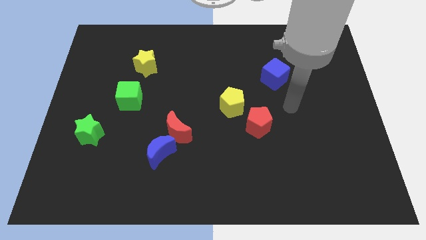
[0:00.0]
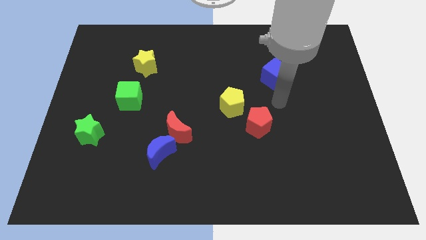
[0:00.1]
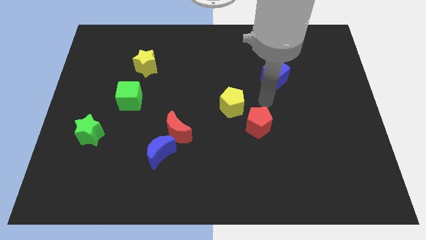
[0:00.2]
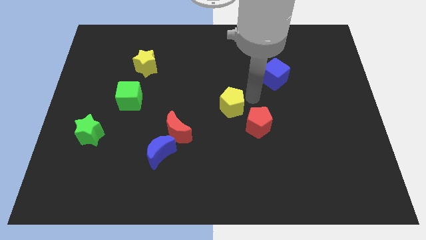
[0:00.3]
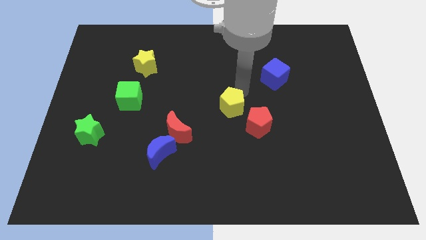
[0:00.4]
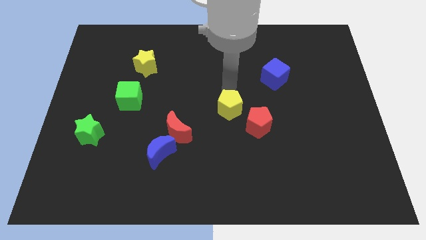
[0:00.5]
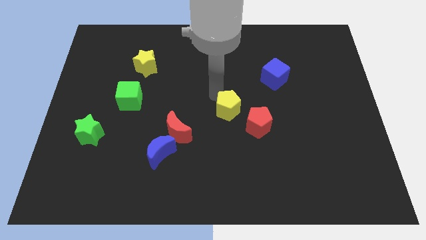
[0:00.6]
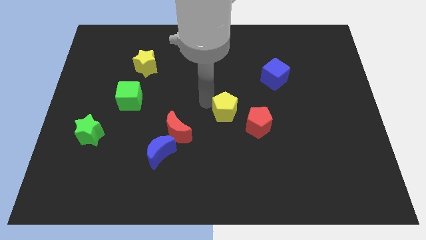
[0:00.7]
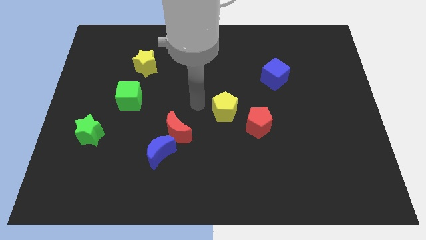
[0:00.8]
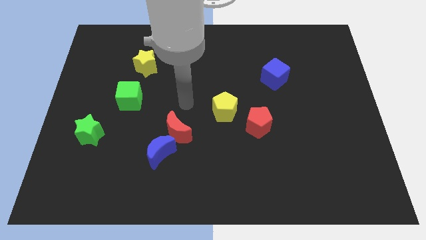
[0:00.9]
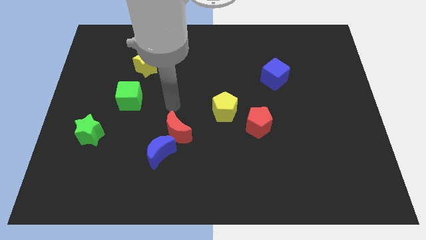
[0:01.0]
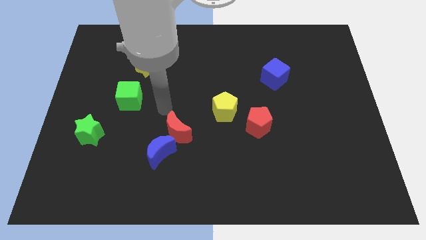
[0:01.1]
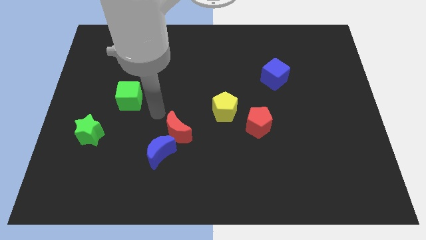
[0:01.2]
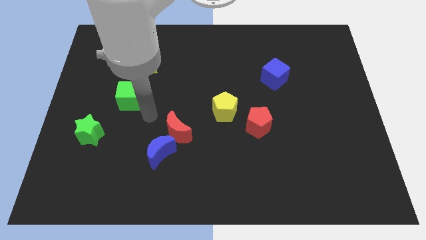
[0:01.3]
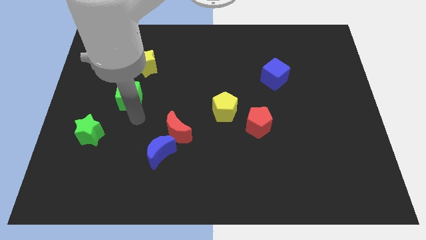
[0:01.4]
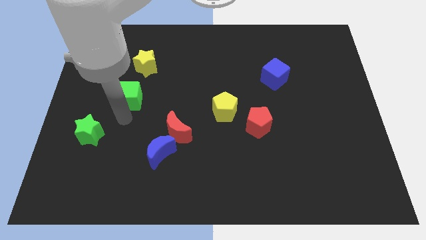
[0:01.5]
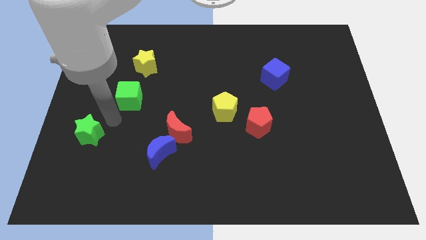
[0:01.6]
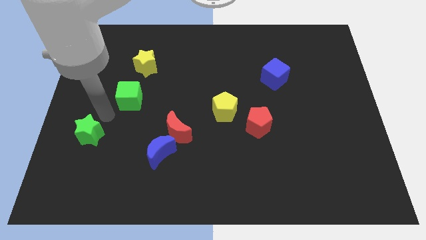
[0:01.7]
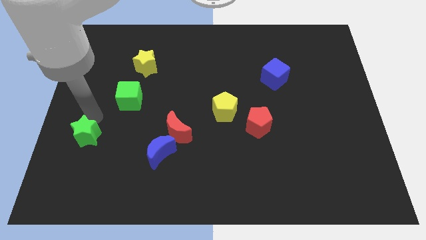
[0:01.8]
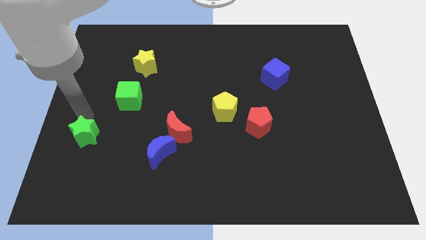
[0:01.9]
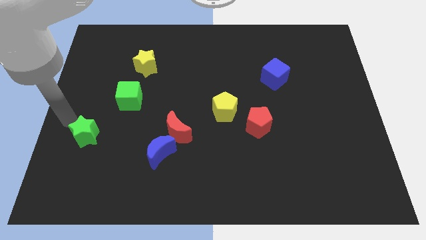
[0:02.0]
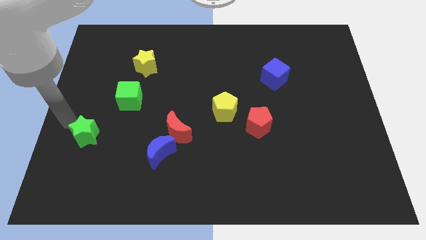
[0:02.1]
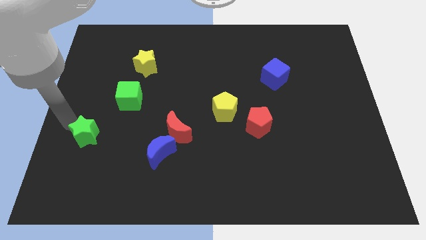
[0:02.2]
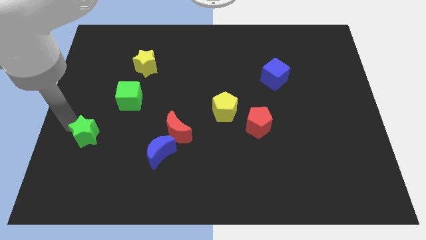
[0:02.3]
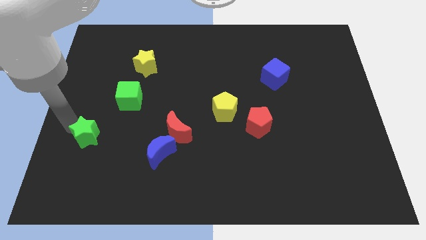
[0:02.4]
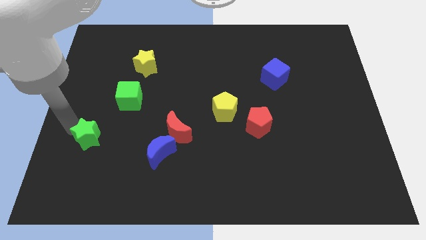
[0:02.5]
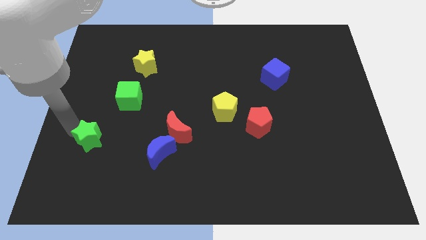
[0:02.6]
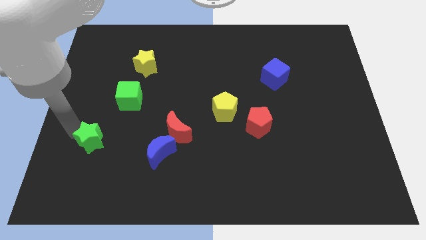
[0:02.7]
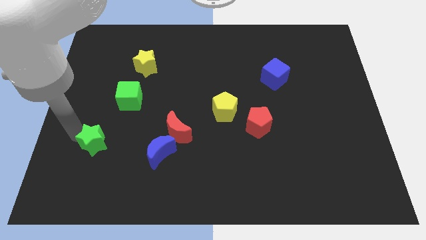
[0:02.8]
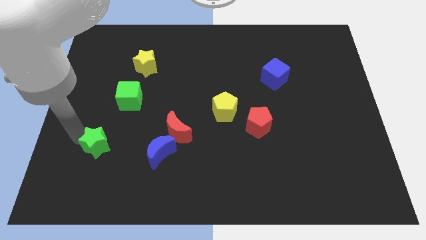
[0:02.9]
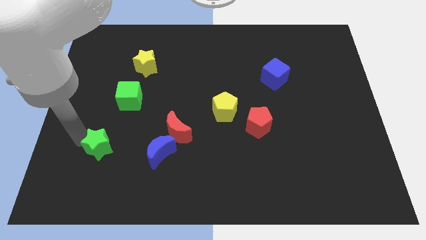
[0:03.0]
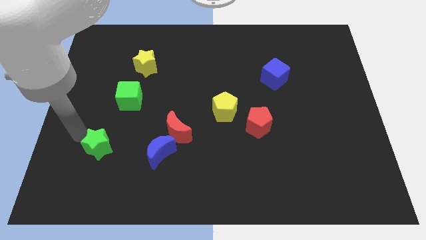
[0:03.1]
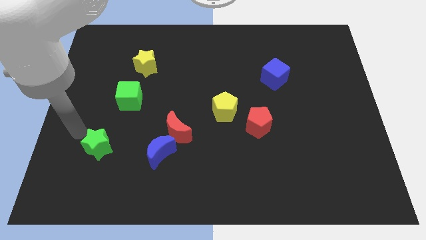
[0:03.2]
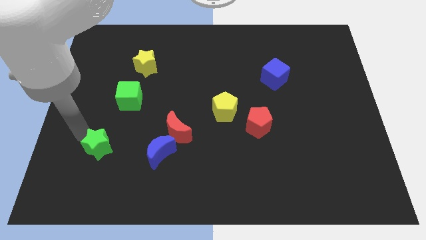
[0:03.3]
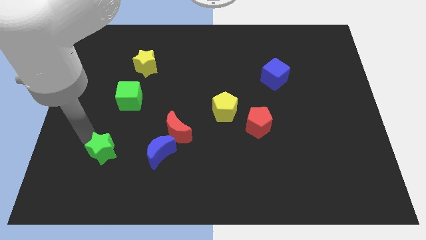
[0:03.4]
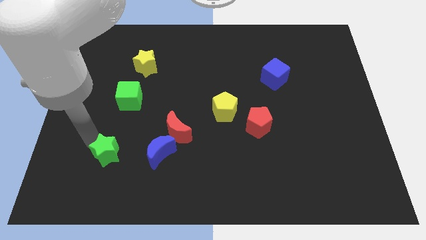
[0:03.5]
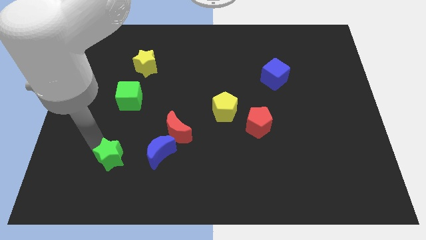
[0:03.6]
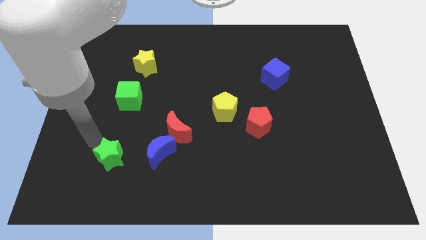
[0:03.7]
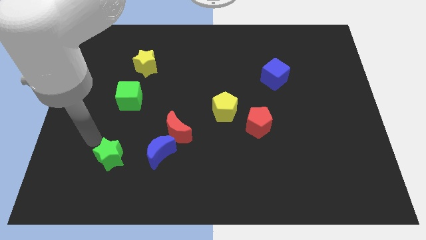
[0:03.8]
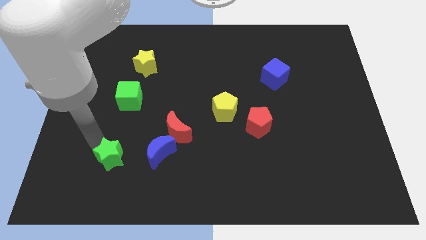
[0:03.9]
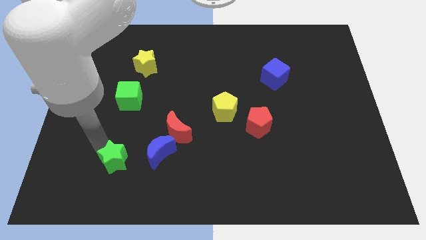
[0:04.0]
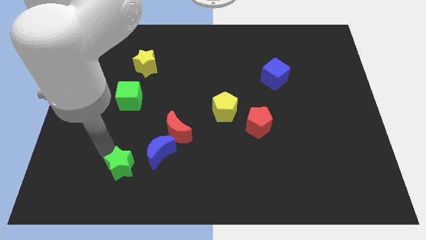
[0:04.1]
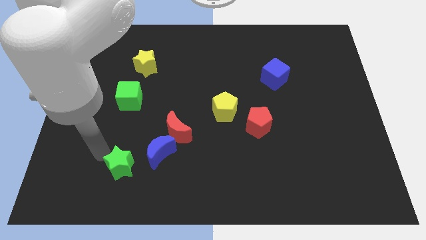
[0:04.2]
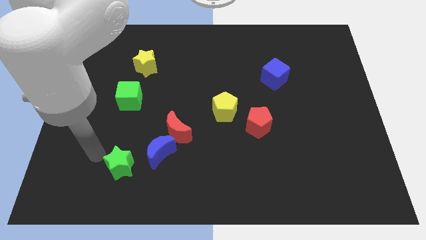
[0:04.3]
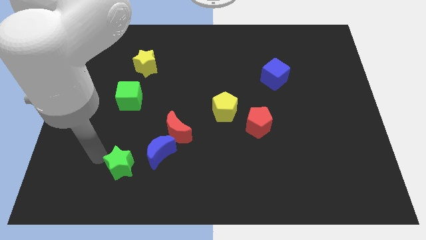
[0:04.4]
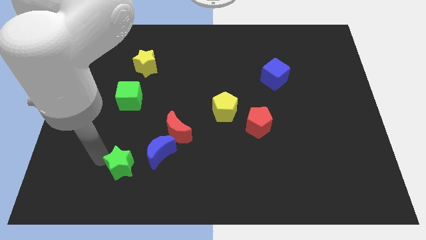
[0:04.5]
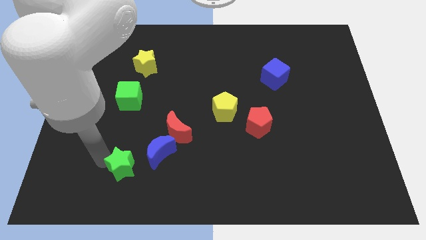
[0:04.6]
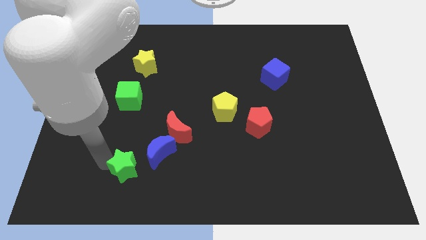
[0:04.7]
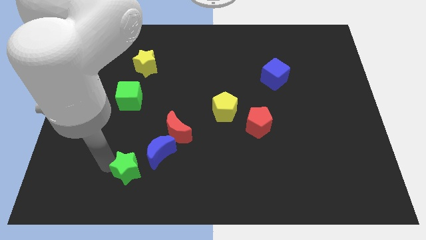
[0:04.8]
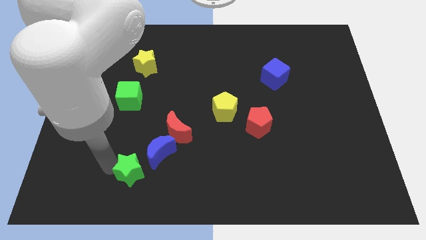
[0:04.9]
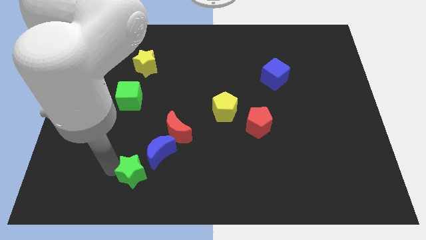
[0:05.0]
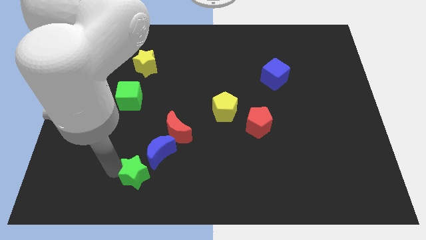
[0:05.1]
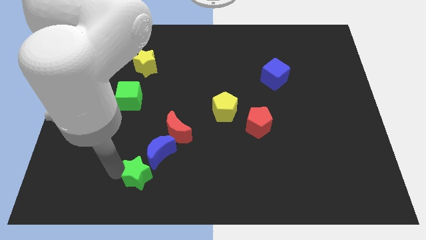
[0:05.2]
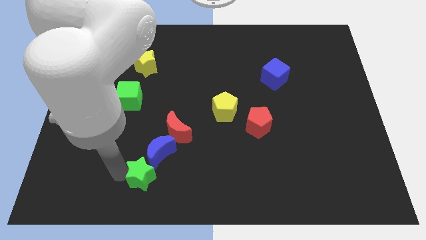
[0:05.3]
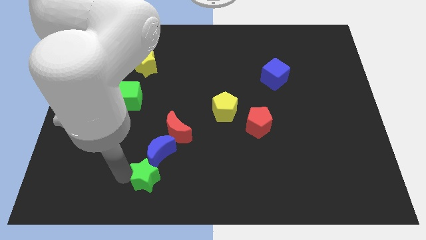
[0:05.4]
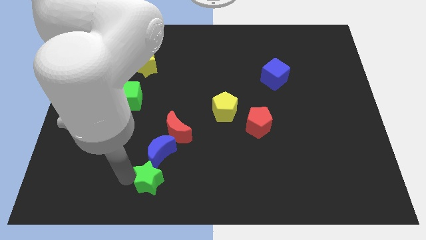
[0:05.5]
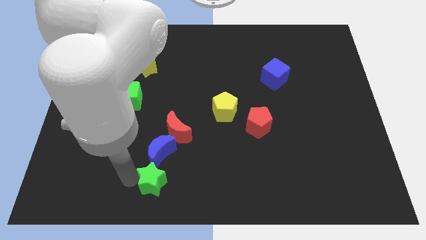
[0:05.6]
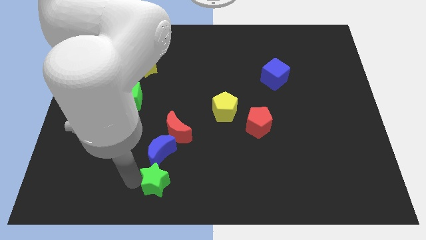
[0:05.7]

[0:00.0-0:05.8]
put the green star diagonally down and to the right of the blue moon

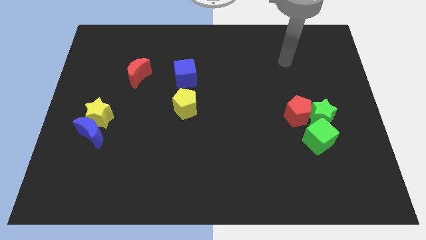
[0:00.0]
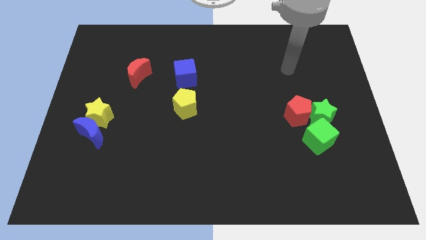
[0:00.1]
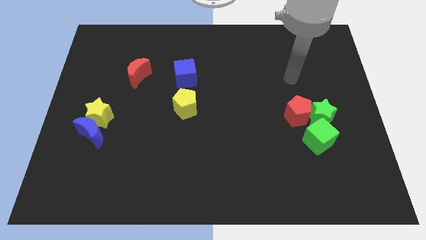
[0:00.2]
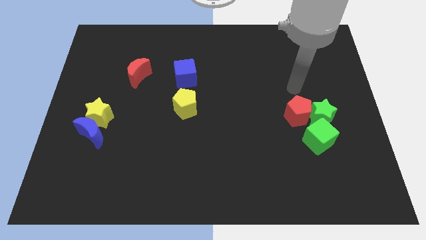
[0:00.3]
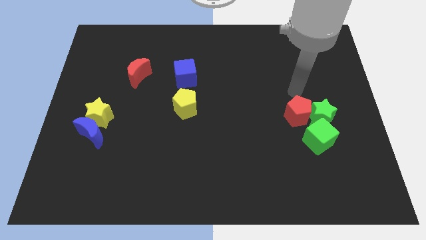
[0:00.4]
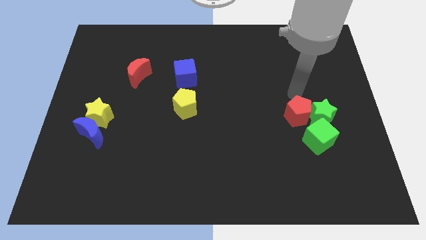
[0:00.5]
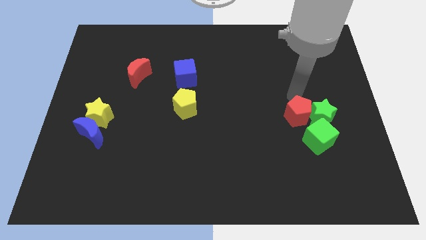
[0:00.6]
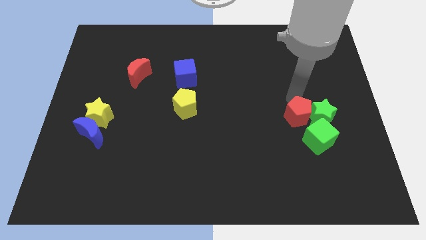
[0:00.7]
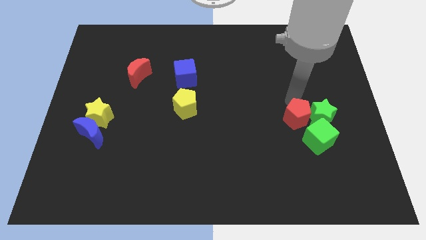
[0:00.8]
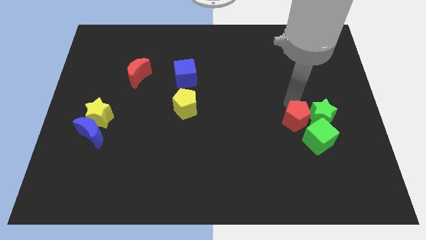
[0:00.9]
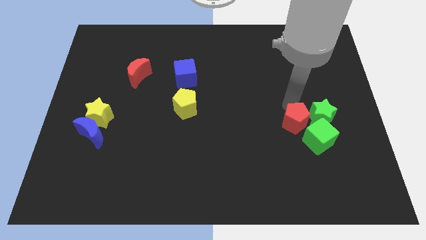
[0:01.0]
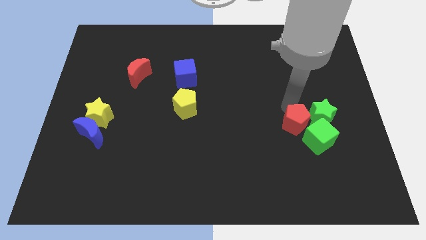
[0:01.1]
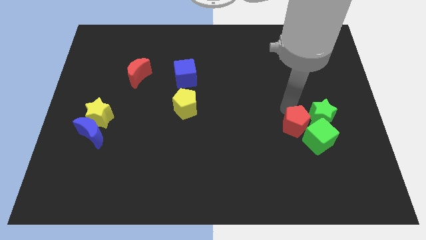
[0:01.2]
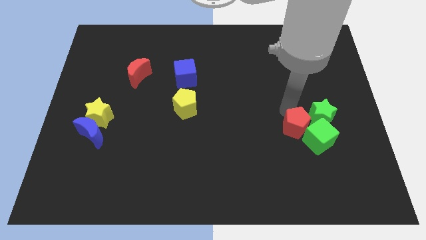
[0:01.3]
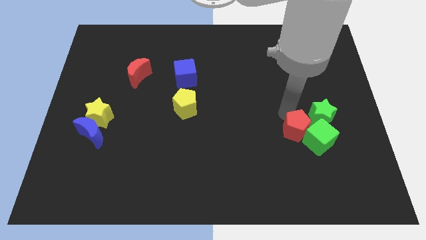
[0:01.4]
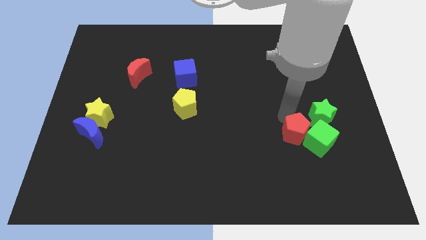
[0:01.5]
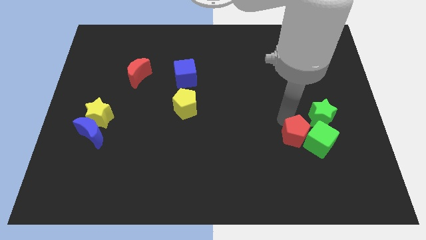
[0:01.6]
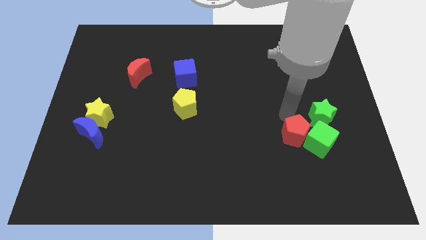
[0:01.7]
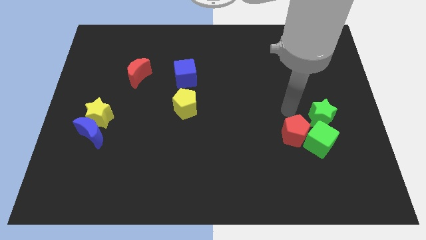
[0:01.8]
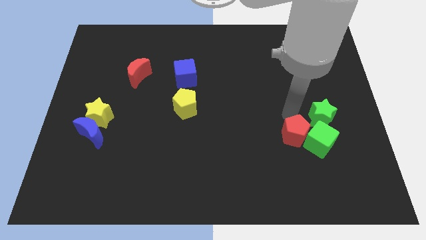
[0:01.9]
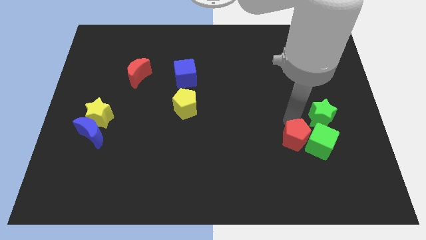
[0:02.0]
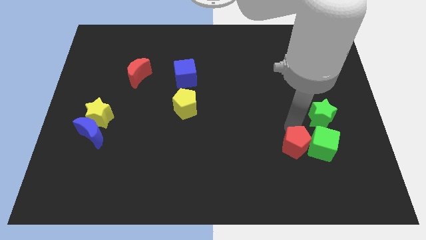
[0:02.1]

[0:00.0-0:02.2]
push the red pentagon to the bottom left side of the green cube
